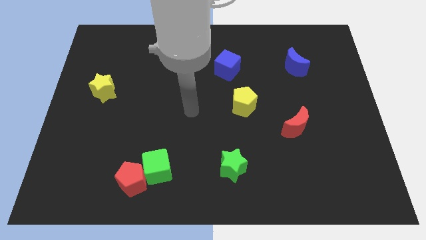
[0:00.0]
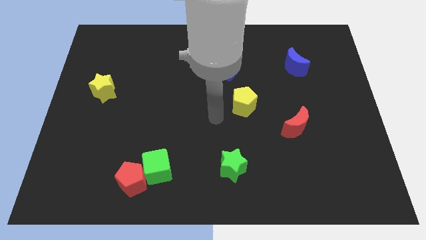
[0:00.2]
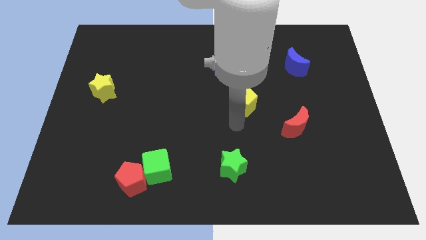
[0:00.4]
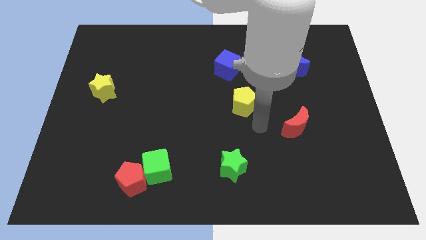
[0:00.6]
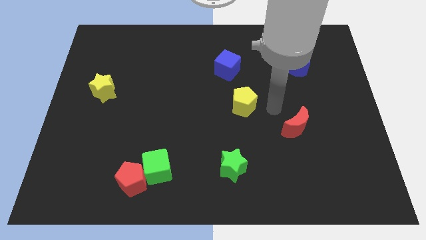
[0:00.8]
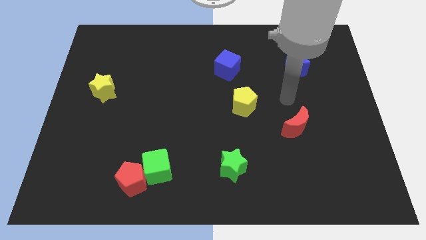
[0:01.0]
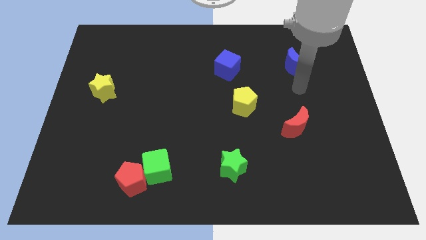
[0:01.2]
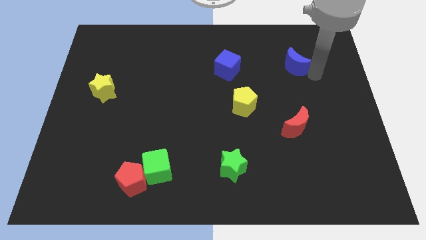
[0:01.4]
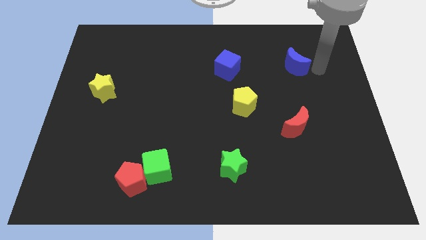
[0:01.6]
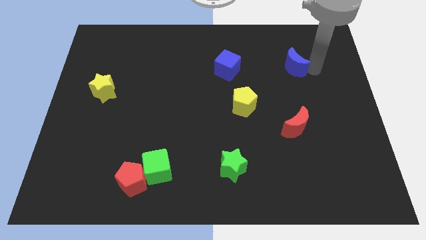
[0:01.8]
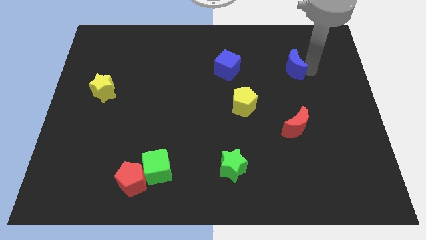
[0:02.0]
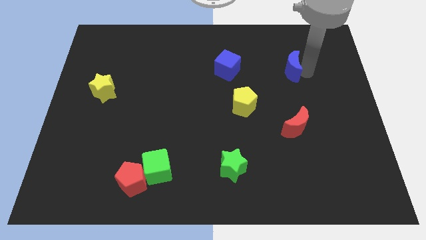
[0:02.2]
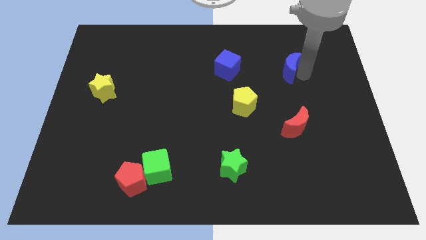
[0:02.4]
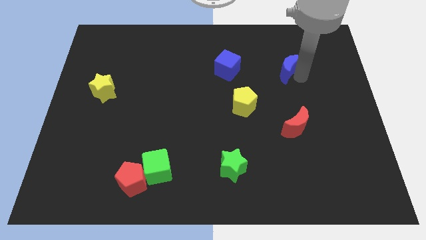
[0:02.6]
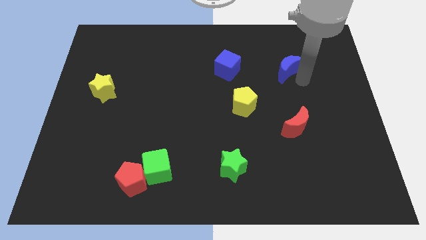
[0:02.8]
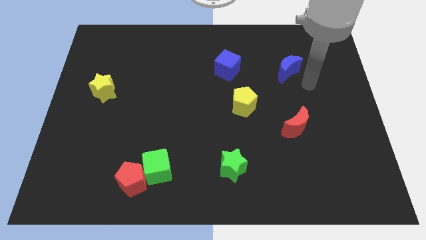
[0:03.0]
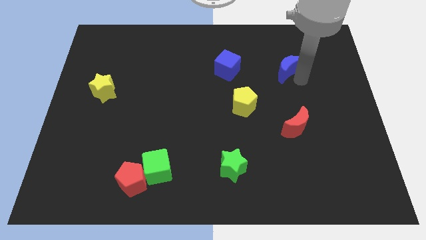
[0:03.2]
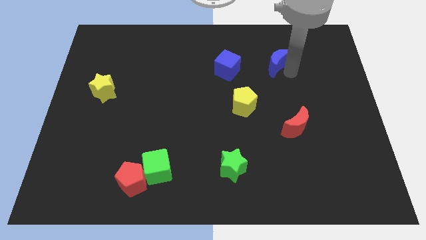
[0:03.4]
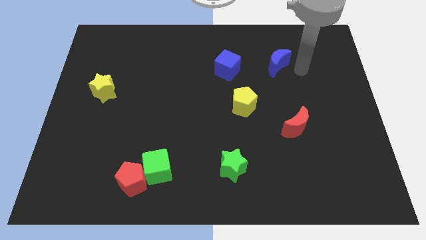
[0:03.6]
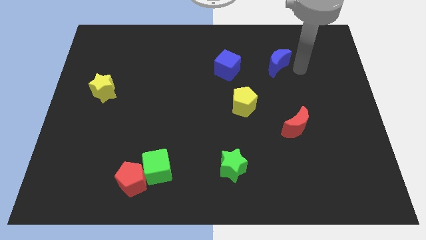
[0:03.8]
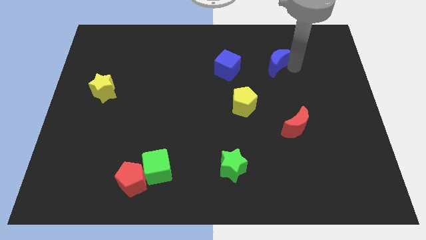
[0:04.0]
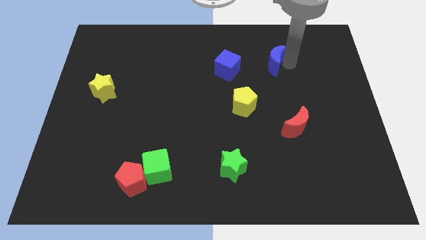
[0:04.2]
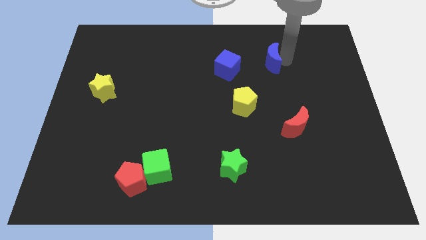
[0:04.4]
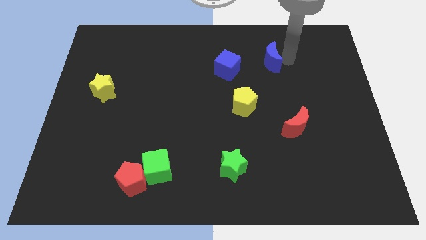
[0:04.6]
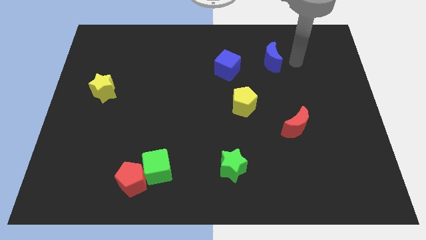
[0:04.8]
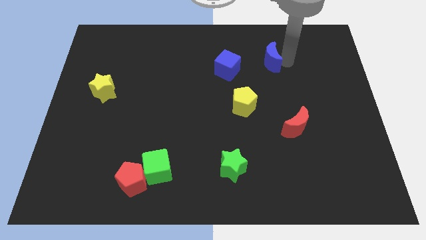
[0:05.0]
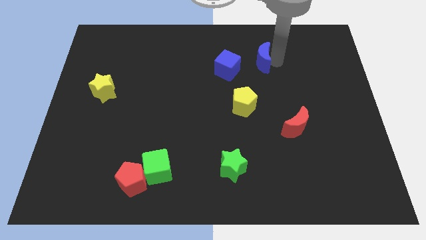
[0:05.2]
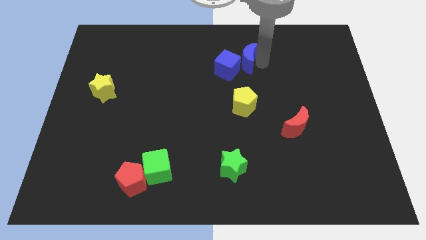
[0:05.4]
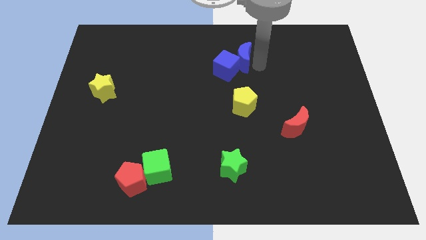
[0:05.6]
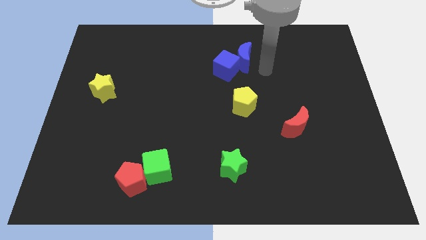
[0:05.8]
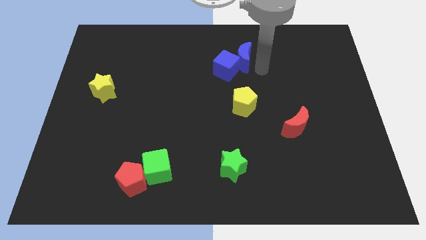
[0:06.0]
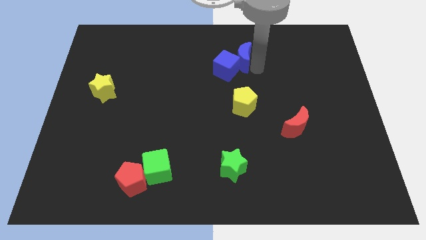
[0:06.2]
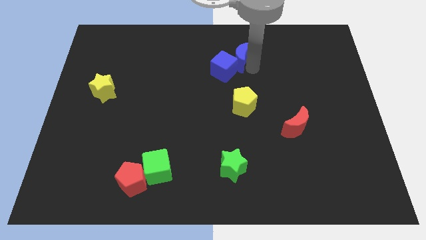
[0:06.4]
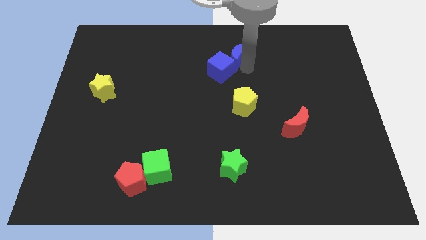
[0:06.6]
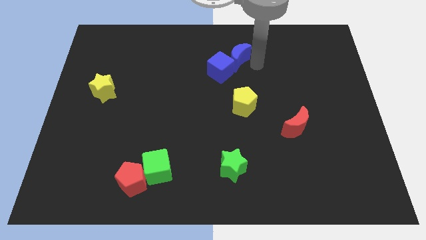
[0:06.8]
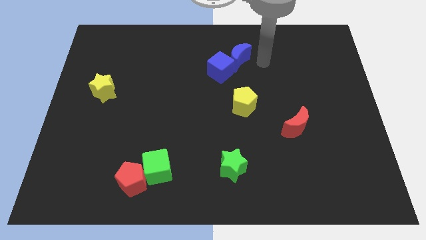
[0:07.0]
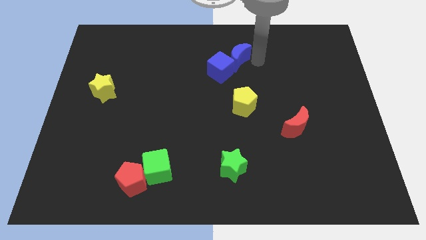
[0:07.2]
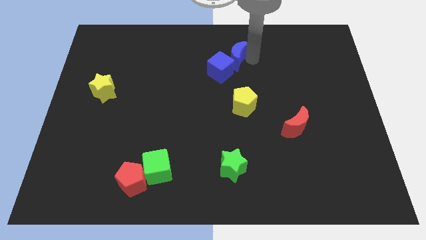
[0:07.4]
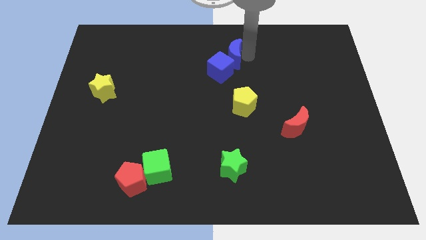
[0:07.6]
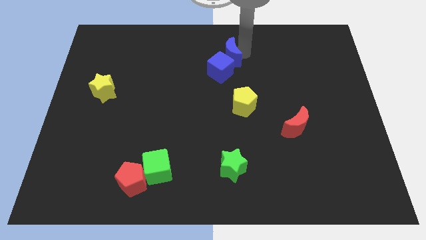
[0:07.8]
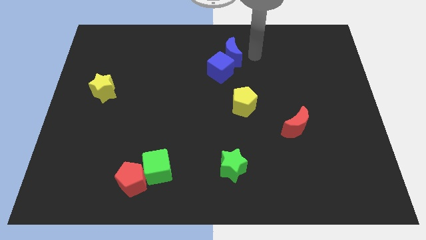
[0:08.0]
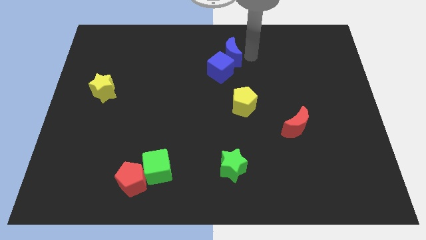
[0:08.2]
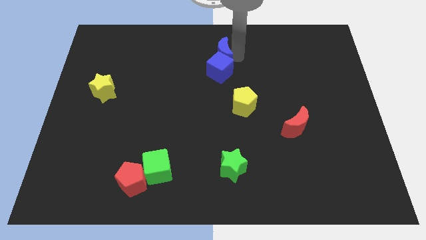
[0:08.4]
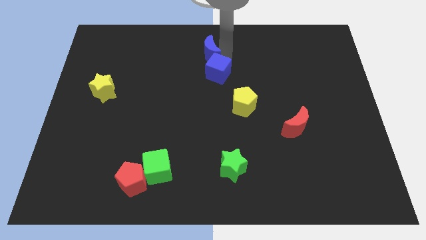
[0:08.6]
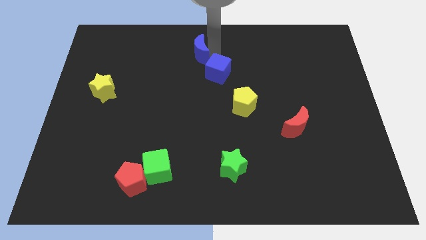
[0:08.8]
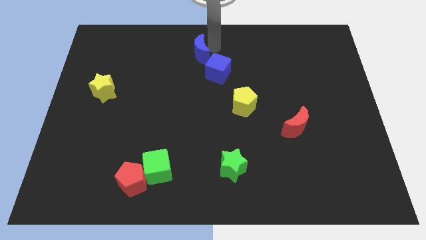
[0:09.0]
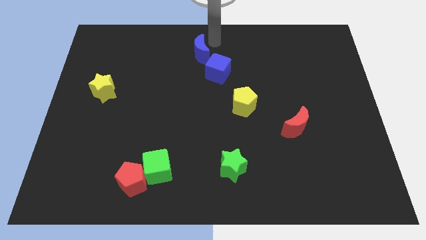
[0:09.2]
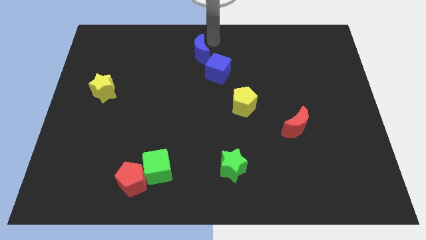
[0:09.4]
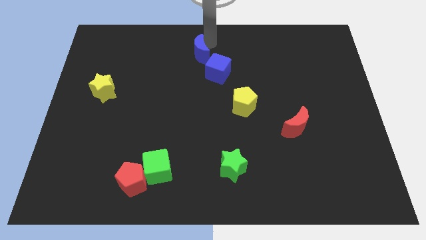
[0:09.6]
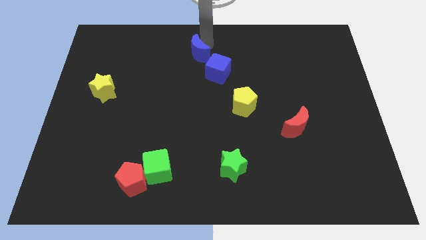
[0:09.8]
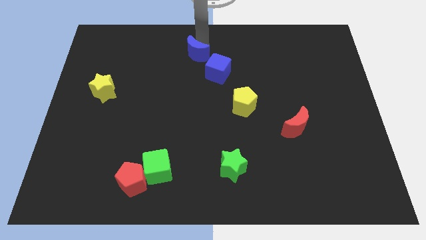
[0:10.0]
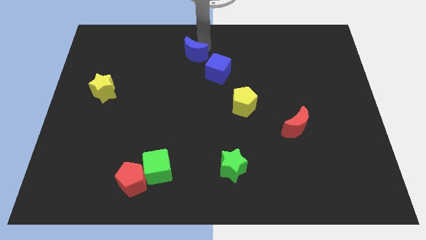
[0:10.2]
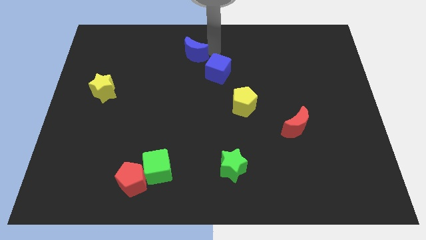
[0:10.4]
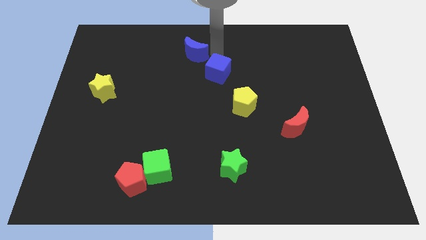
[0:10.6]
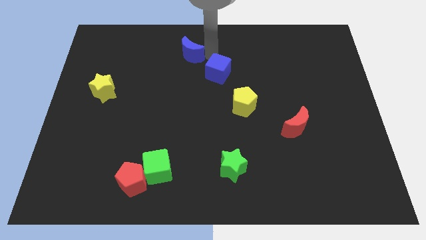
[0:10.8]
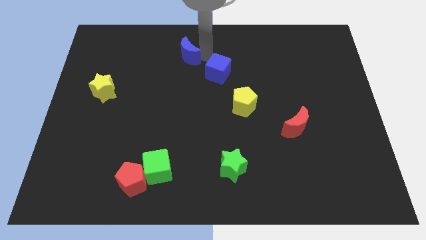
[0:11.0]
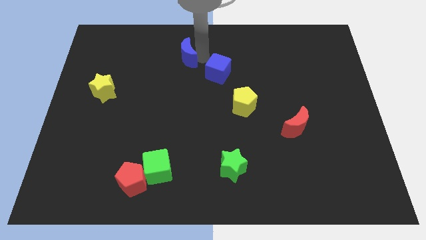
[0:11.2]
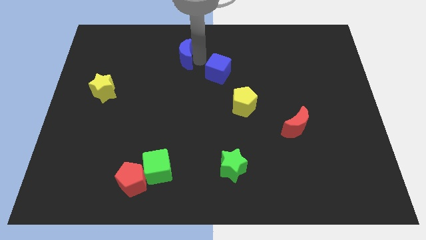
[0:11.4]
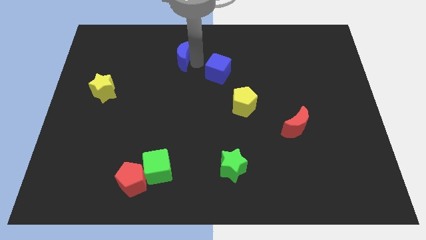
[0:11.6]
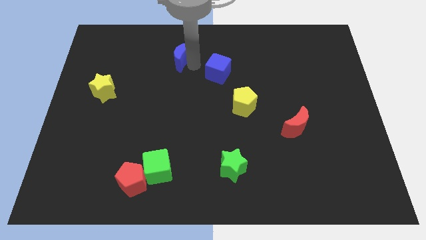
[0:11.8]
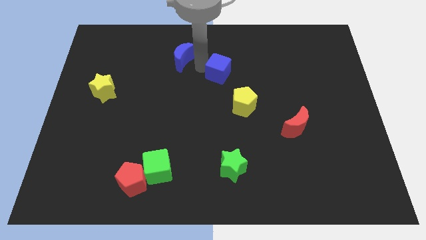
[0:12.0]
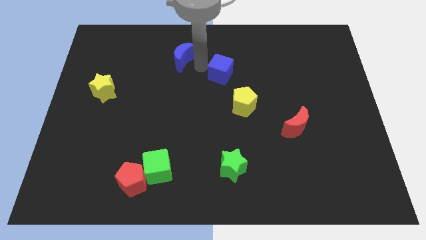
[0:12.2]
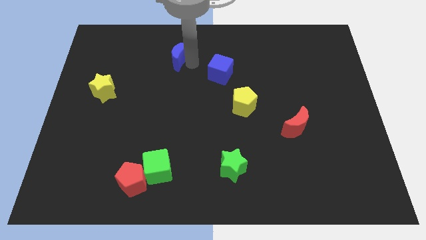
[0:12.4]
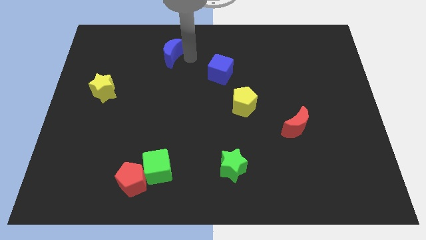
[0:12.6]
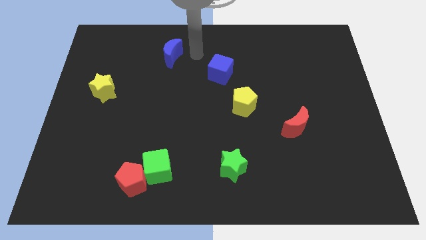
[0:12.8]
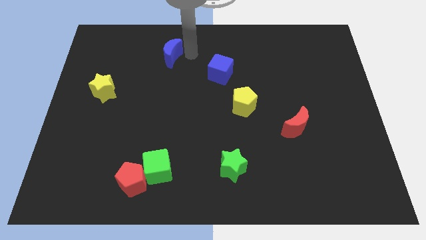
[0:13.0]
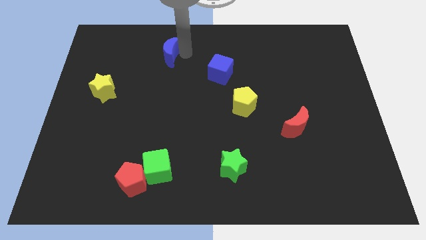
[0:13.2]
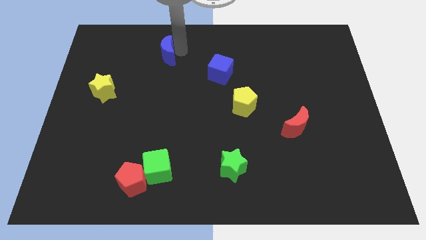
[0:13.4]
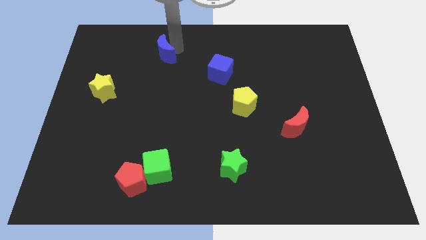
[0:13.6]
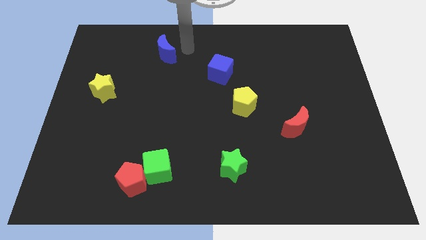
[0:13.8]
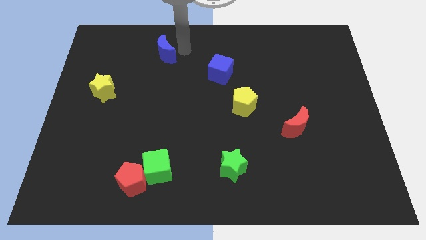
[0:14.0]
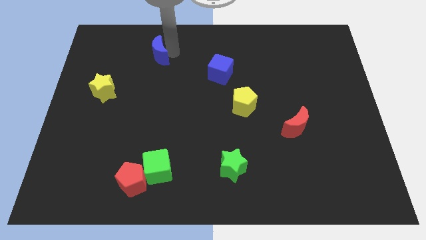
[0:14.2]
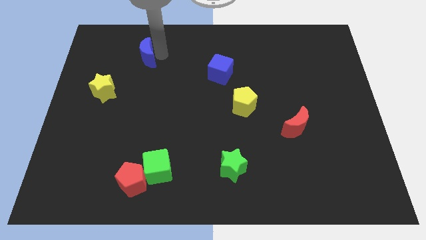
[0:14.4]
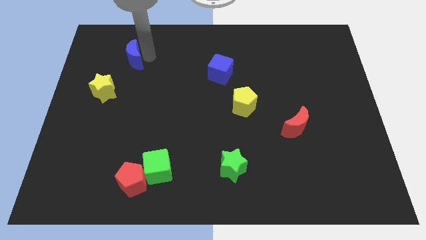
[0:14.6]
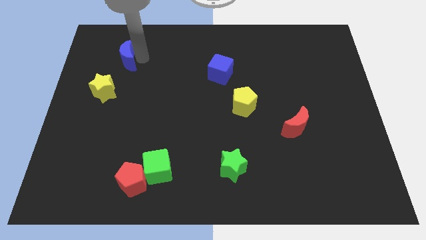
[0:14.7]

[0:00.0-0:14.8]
put the blue moon to the top of the yellow star

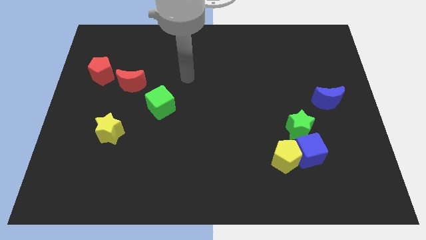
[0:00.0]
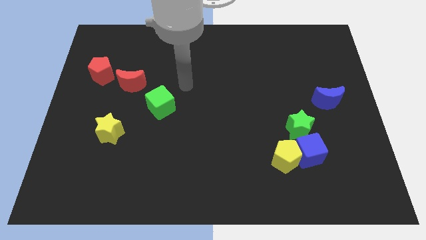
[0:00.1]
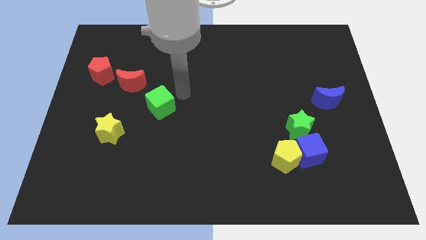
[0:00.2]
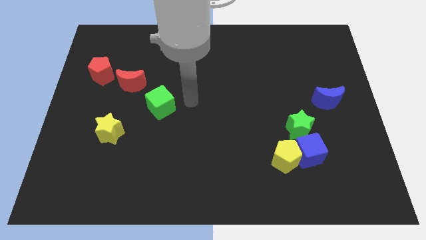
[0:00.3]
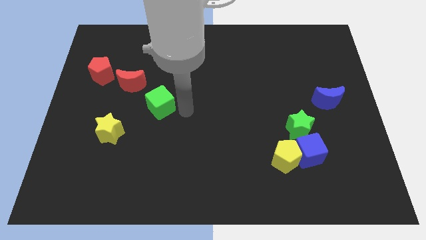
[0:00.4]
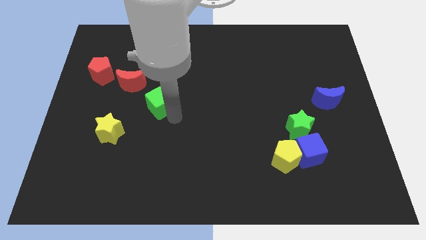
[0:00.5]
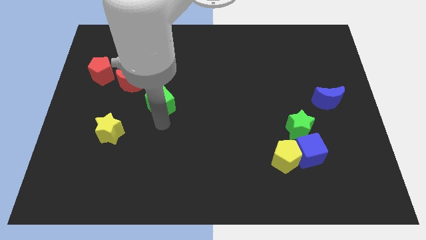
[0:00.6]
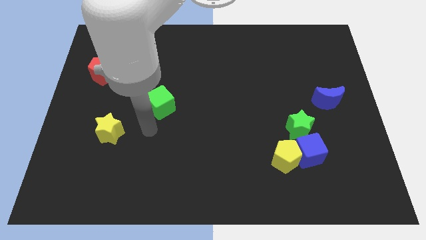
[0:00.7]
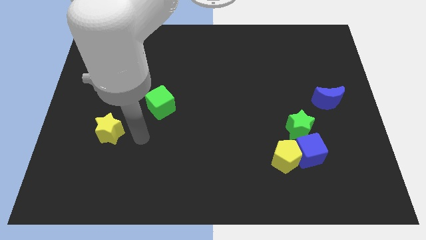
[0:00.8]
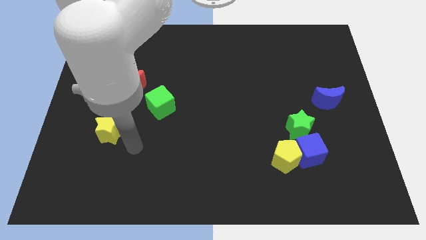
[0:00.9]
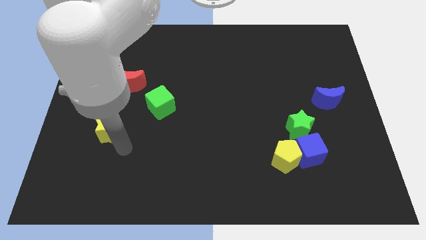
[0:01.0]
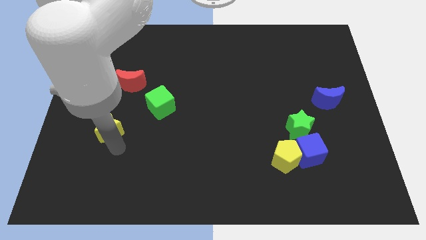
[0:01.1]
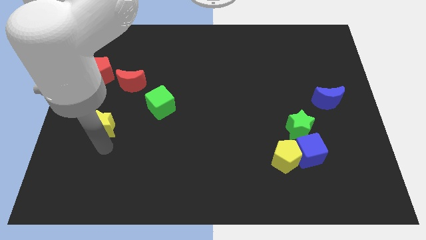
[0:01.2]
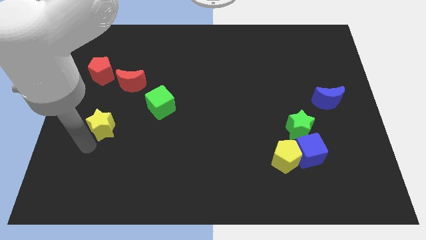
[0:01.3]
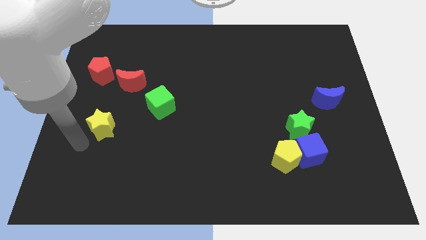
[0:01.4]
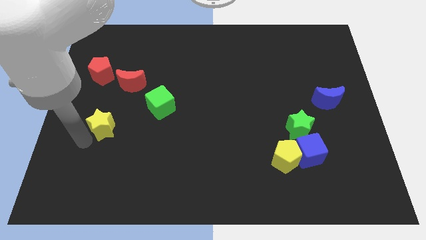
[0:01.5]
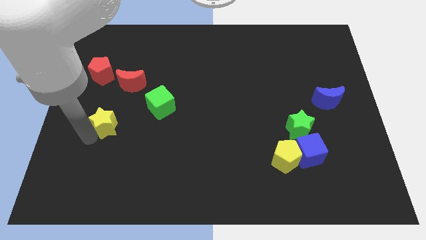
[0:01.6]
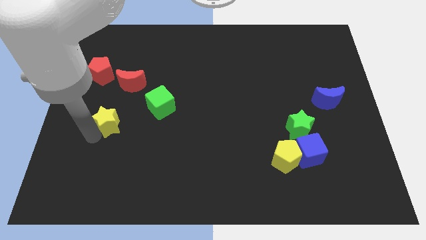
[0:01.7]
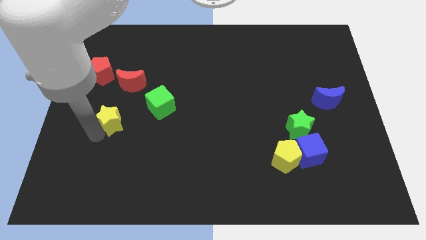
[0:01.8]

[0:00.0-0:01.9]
slide the yellow star just left of the green cube
